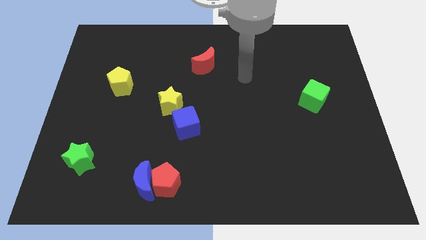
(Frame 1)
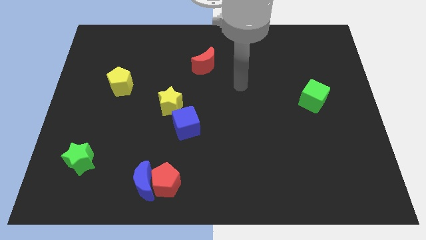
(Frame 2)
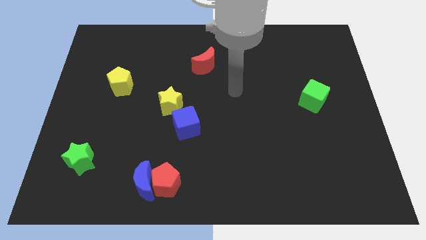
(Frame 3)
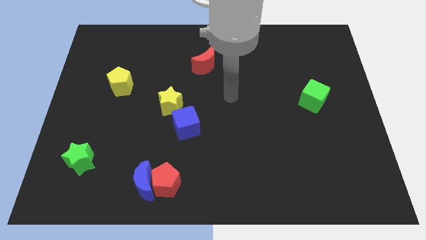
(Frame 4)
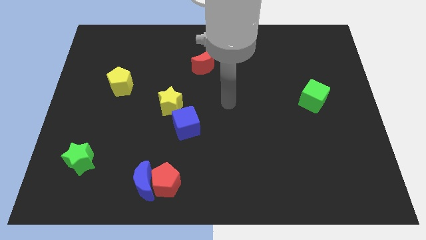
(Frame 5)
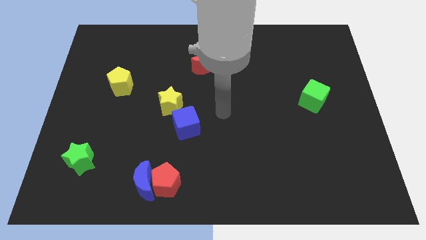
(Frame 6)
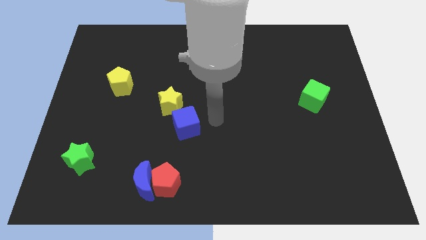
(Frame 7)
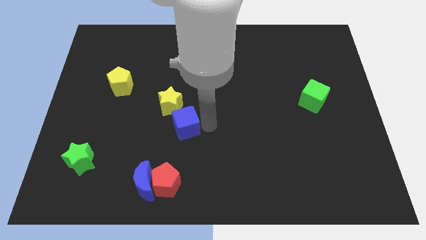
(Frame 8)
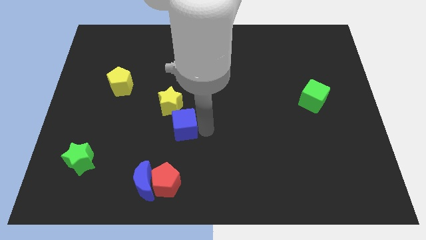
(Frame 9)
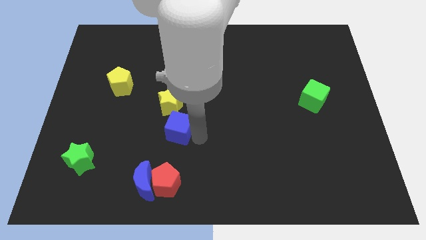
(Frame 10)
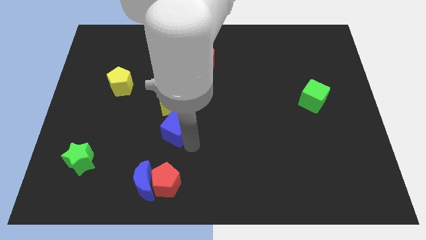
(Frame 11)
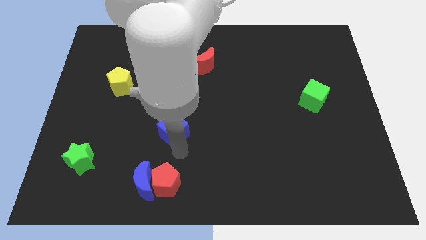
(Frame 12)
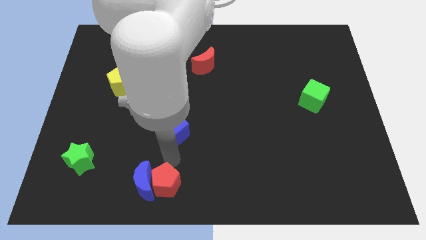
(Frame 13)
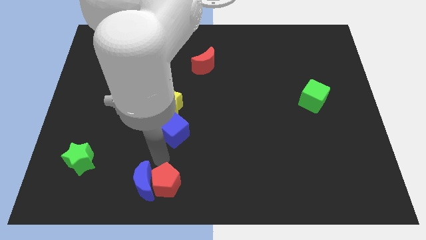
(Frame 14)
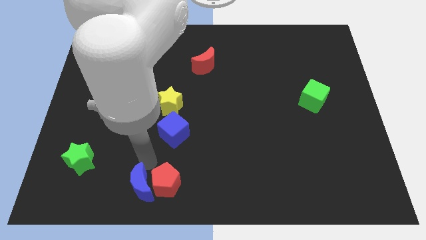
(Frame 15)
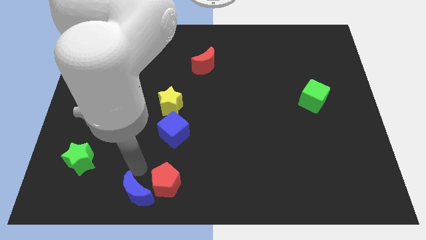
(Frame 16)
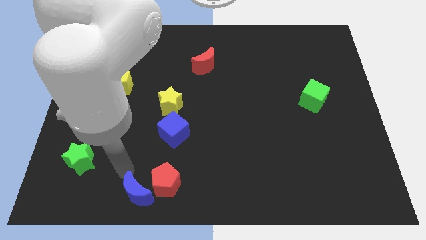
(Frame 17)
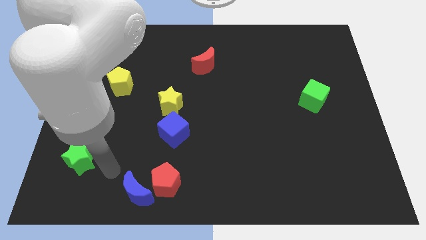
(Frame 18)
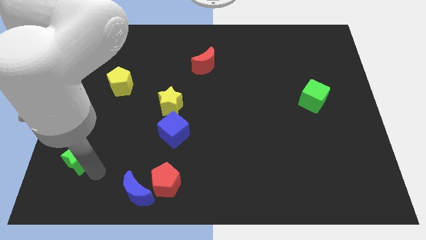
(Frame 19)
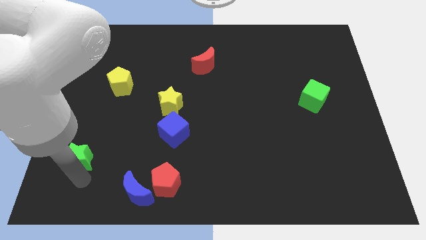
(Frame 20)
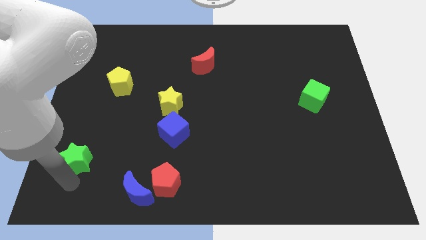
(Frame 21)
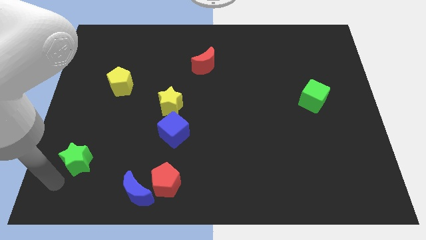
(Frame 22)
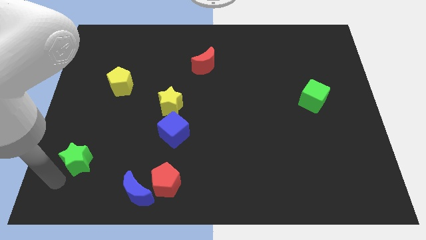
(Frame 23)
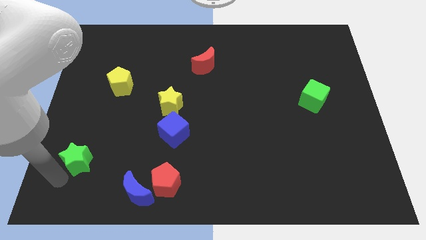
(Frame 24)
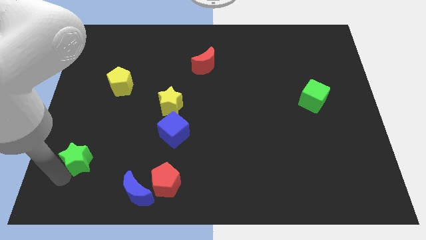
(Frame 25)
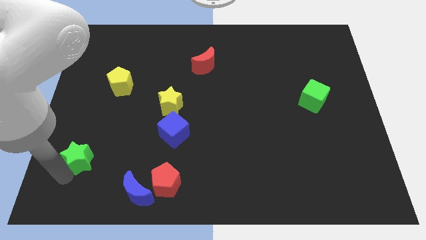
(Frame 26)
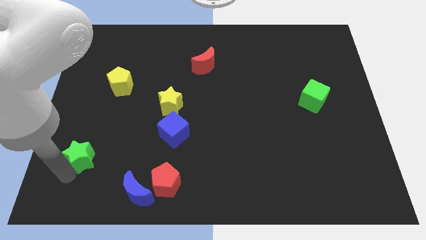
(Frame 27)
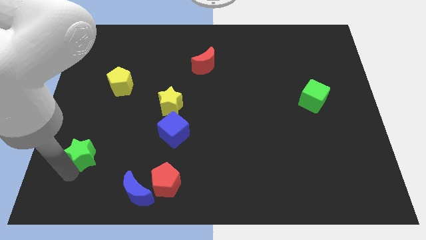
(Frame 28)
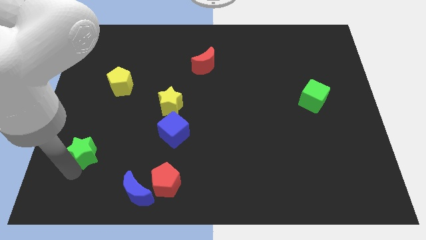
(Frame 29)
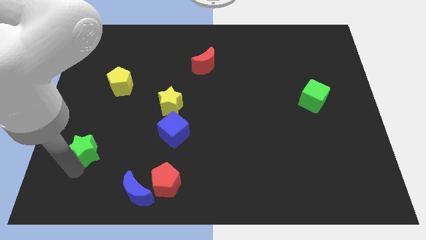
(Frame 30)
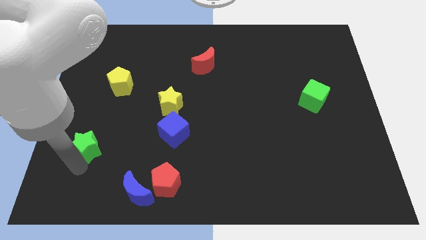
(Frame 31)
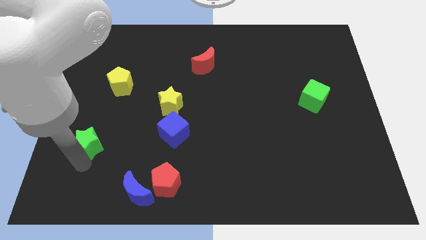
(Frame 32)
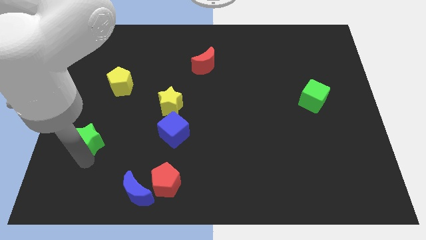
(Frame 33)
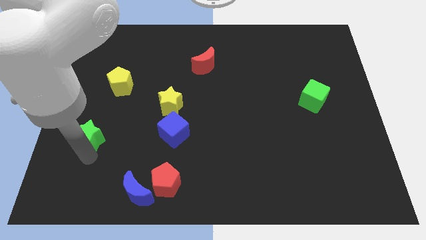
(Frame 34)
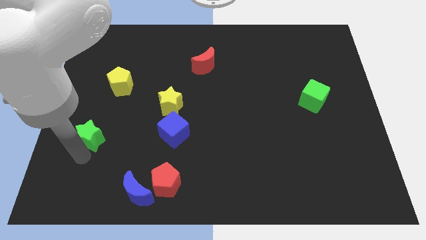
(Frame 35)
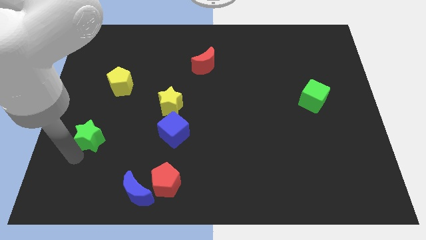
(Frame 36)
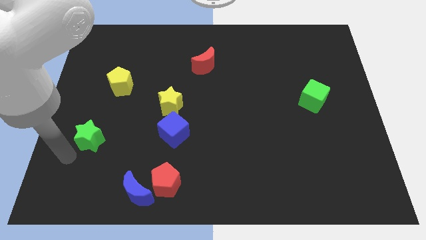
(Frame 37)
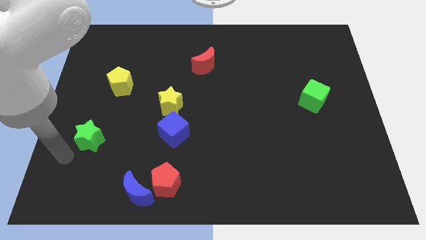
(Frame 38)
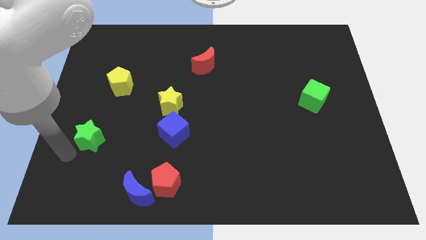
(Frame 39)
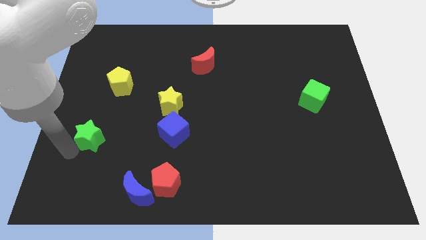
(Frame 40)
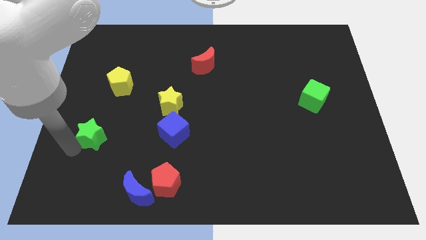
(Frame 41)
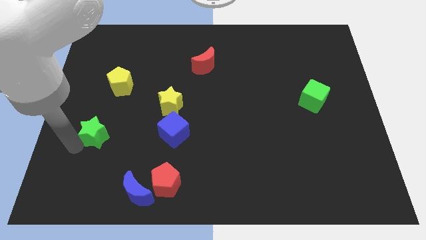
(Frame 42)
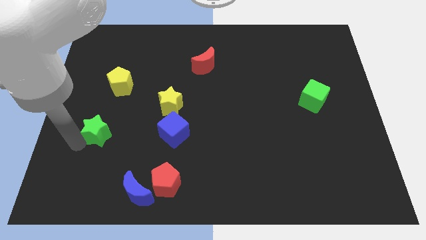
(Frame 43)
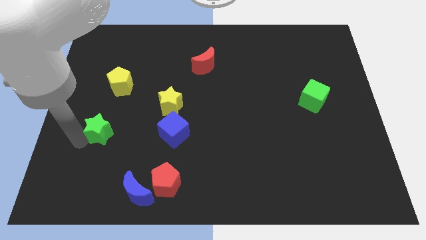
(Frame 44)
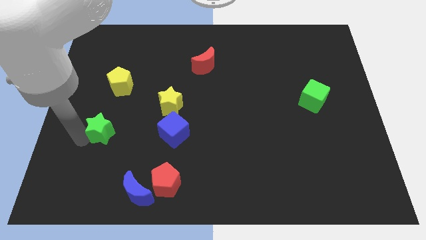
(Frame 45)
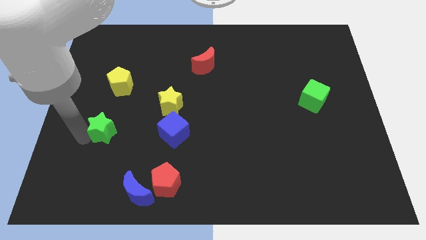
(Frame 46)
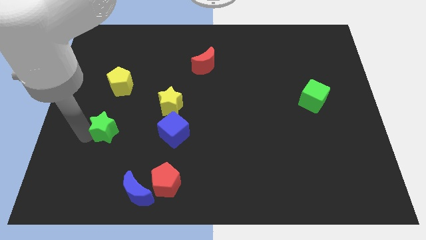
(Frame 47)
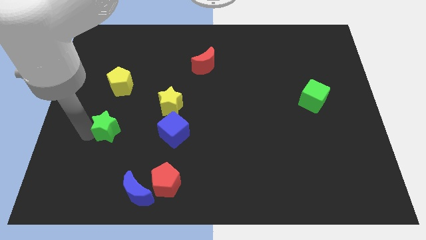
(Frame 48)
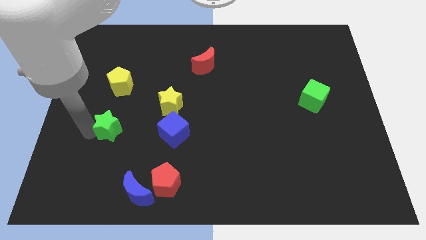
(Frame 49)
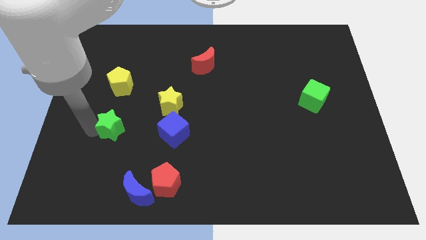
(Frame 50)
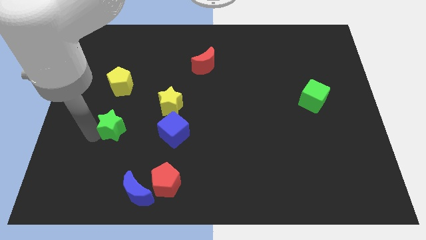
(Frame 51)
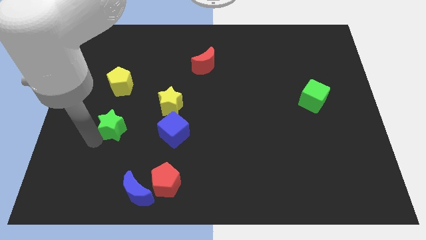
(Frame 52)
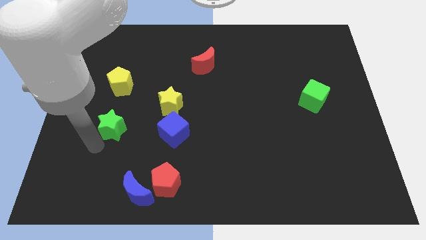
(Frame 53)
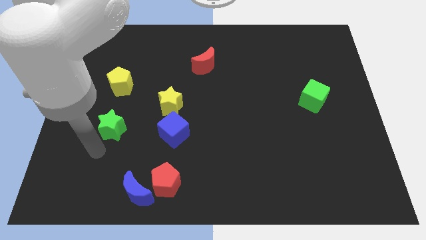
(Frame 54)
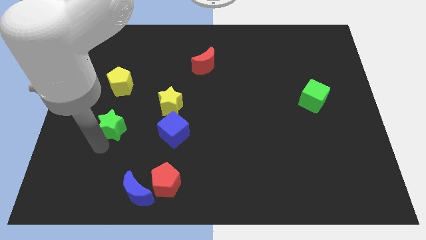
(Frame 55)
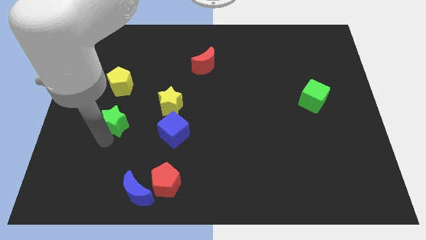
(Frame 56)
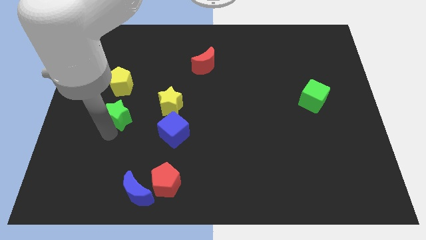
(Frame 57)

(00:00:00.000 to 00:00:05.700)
push the green star left of the yellow star
